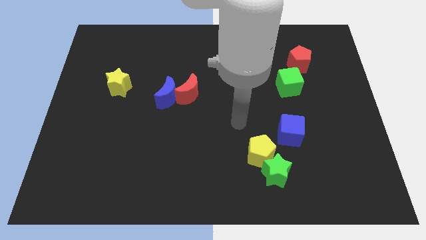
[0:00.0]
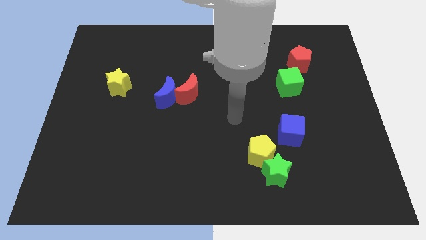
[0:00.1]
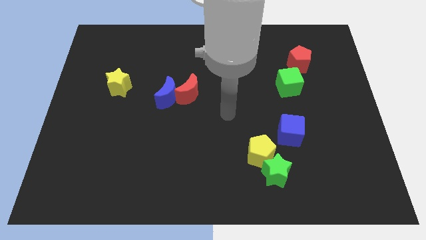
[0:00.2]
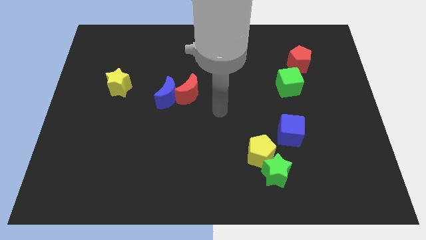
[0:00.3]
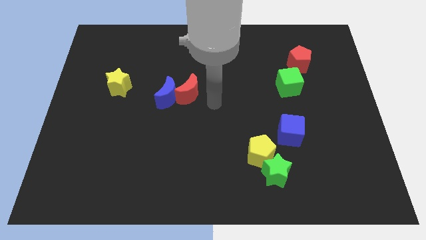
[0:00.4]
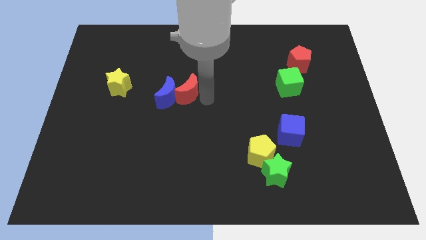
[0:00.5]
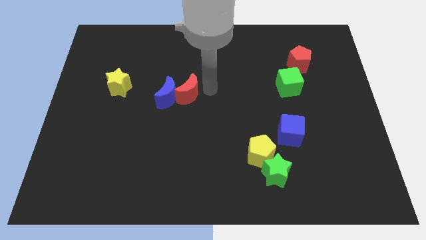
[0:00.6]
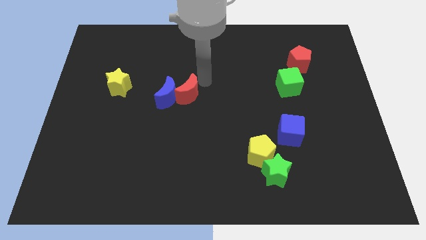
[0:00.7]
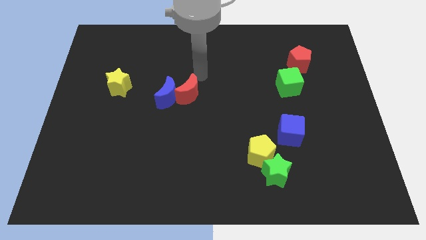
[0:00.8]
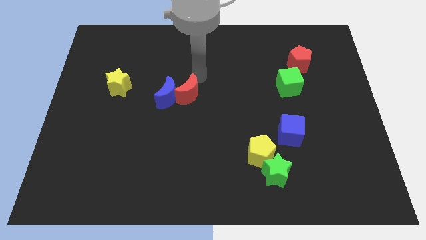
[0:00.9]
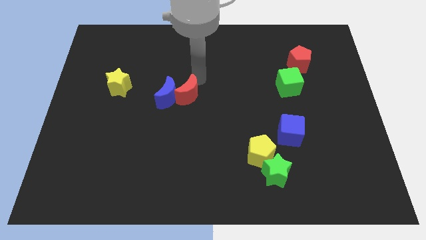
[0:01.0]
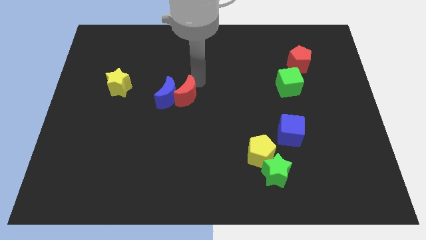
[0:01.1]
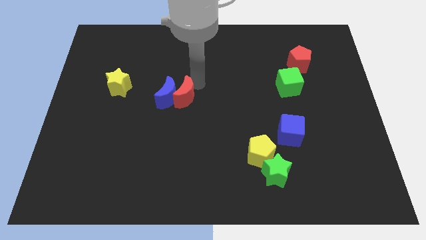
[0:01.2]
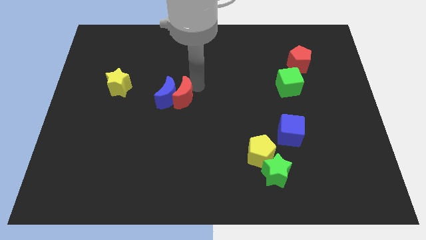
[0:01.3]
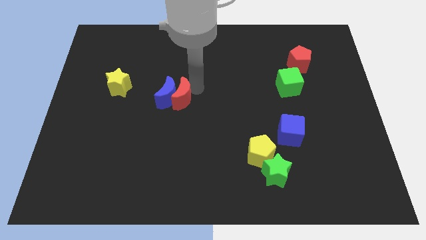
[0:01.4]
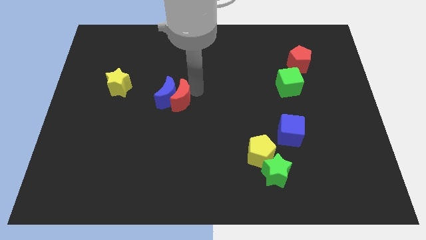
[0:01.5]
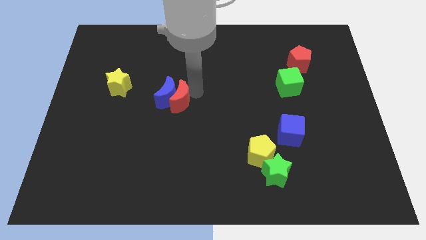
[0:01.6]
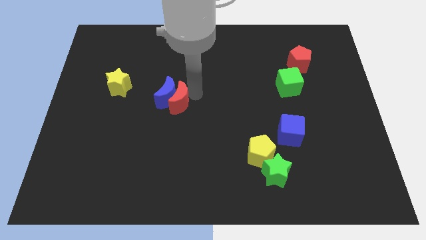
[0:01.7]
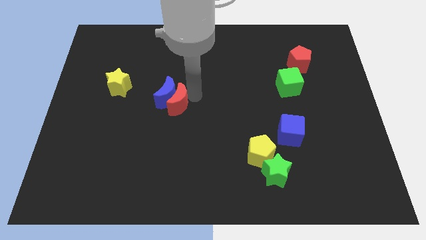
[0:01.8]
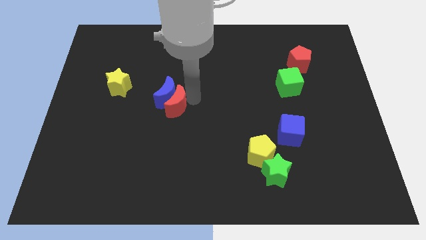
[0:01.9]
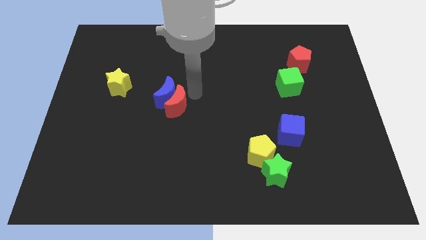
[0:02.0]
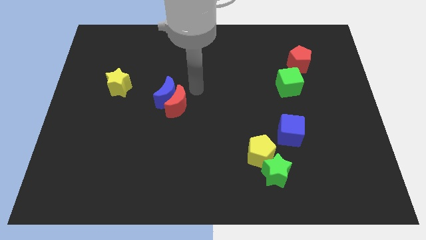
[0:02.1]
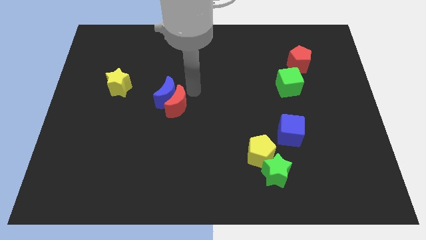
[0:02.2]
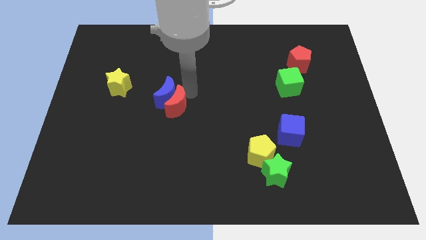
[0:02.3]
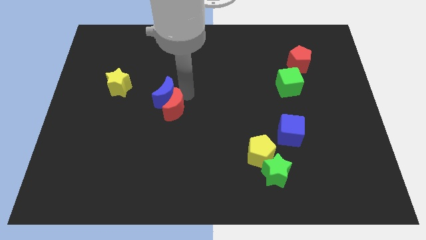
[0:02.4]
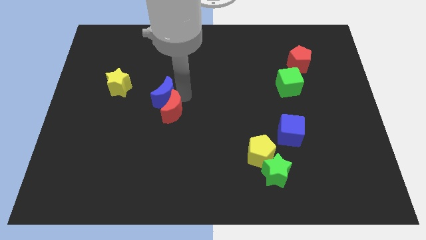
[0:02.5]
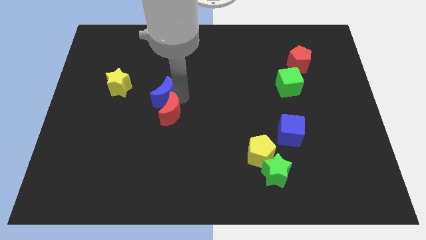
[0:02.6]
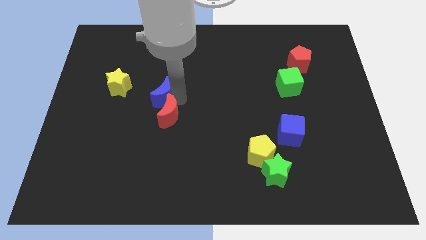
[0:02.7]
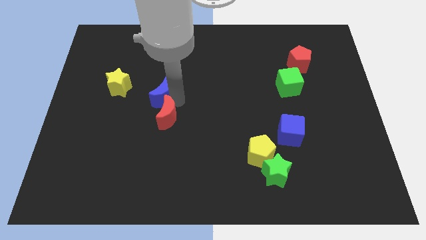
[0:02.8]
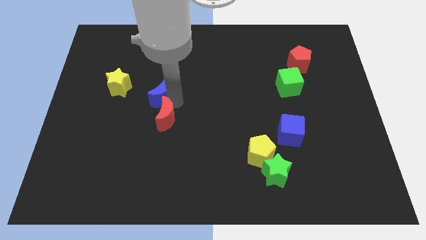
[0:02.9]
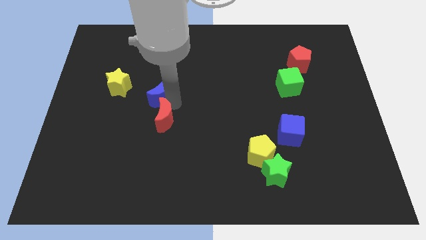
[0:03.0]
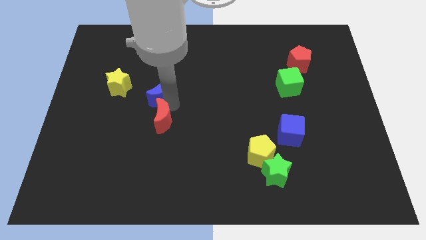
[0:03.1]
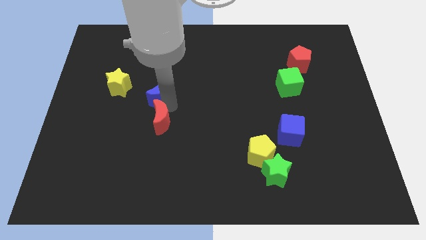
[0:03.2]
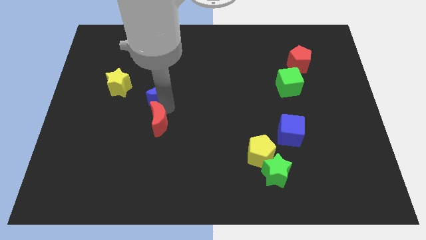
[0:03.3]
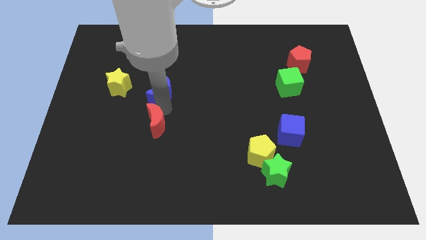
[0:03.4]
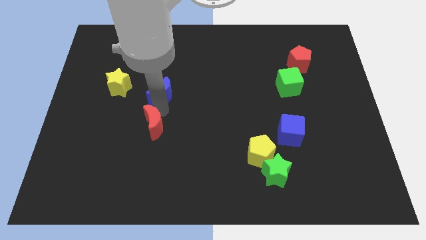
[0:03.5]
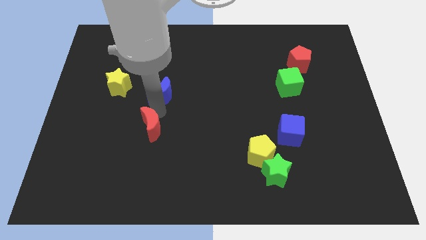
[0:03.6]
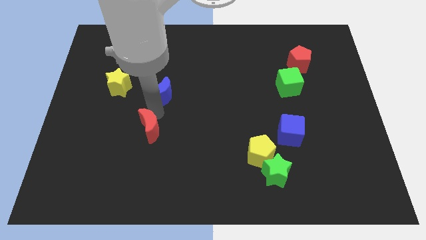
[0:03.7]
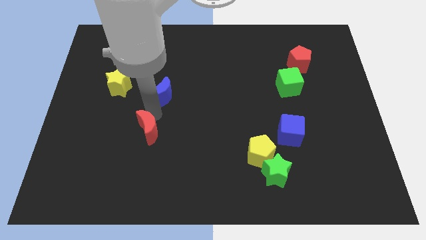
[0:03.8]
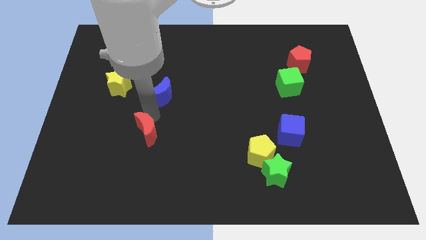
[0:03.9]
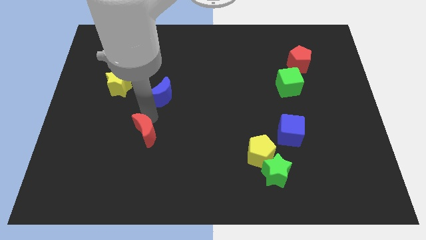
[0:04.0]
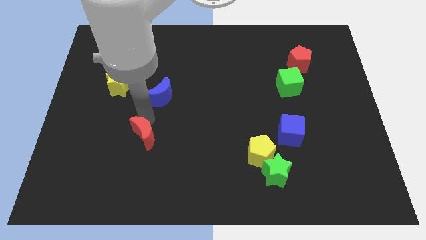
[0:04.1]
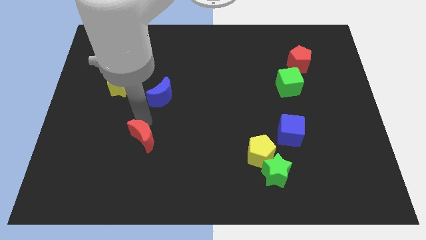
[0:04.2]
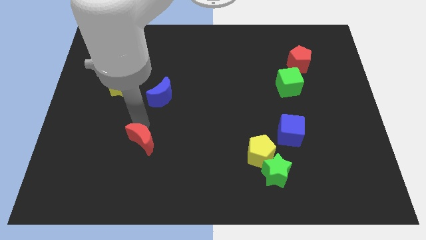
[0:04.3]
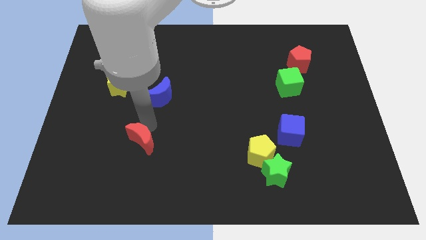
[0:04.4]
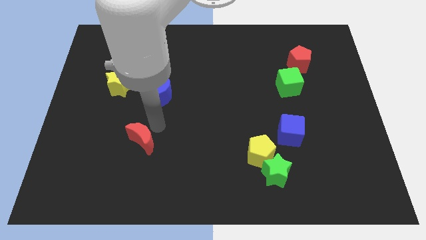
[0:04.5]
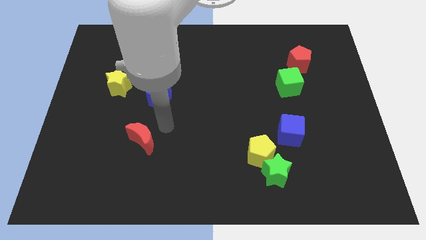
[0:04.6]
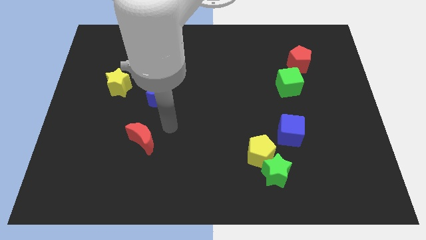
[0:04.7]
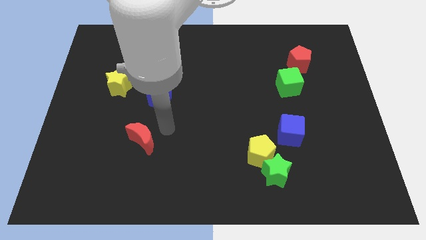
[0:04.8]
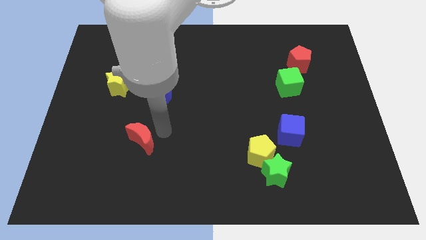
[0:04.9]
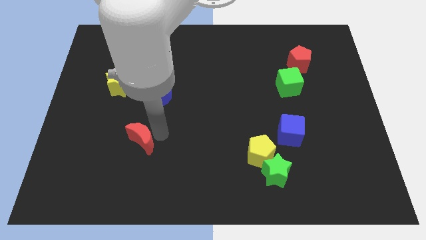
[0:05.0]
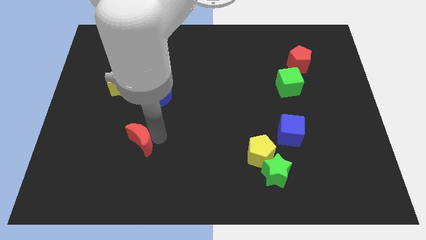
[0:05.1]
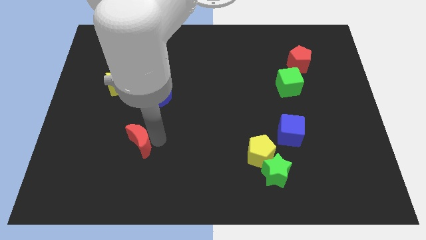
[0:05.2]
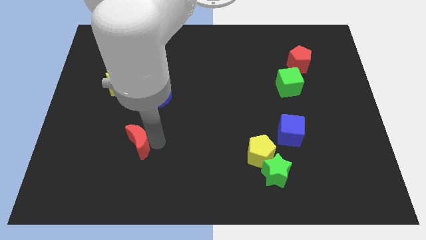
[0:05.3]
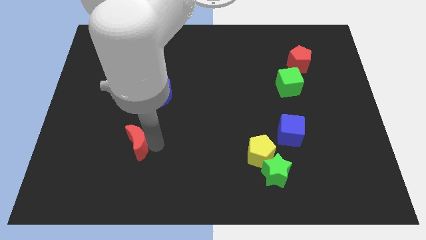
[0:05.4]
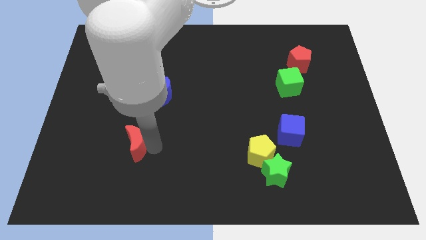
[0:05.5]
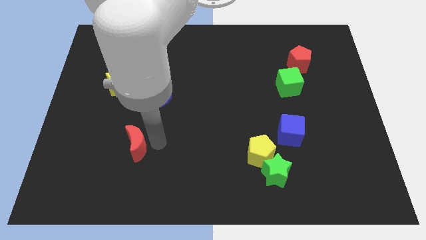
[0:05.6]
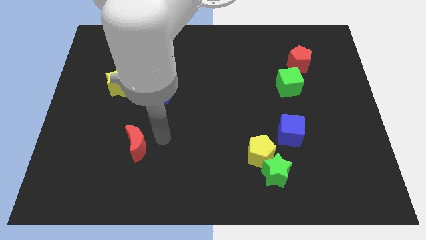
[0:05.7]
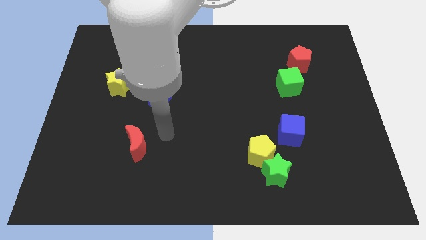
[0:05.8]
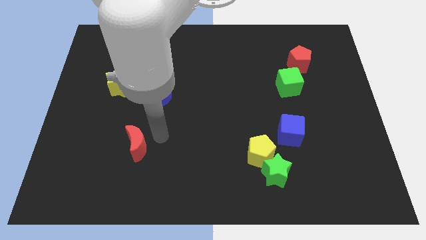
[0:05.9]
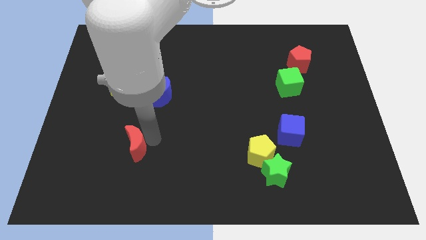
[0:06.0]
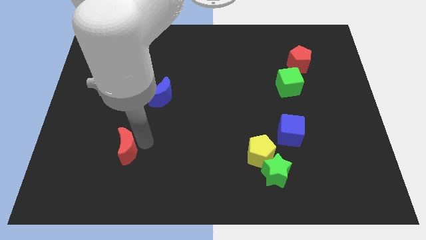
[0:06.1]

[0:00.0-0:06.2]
slide the red moon diagonally down and to the left

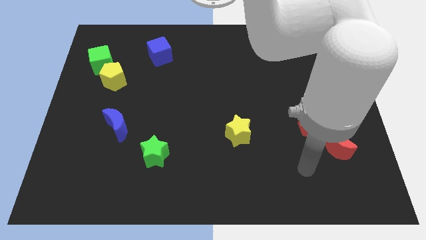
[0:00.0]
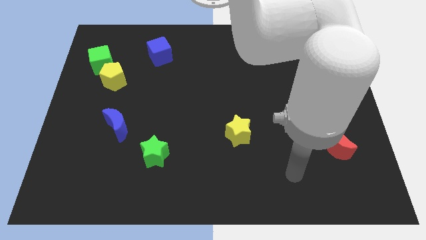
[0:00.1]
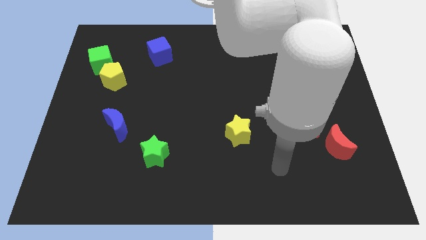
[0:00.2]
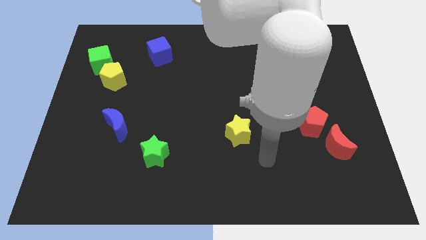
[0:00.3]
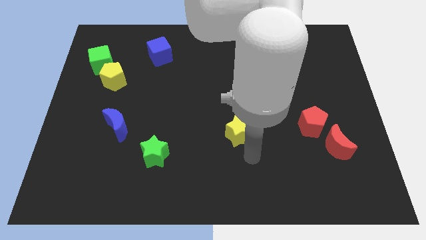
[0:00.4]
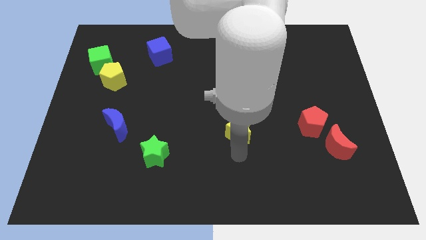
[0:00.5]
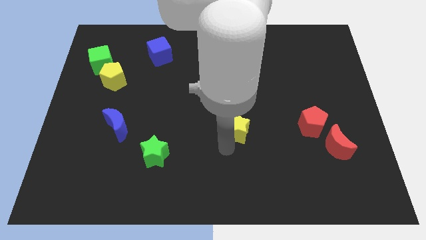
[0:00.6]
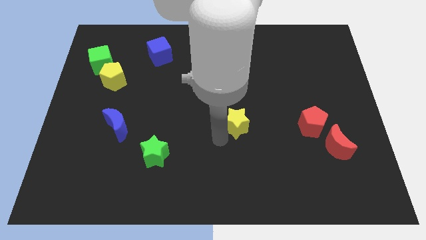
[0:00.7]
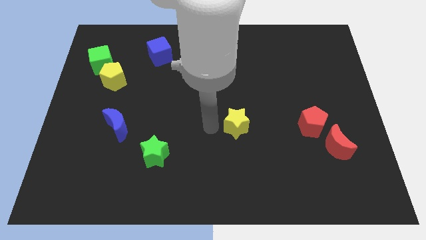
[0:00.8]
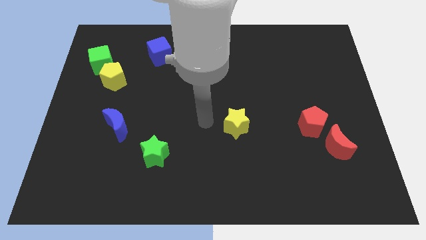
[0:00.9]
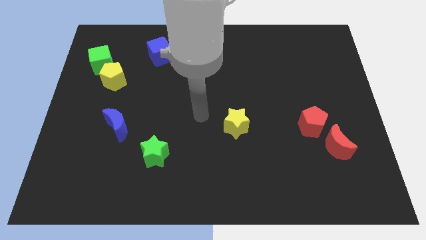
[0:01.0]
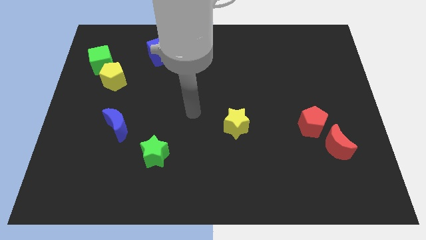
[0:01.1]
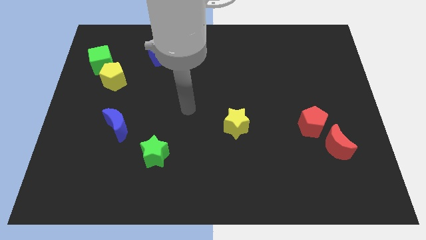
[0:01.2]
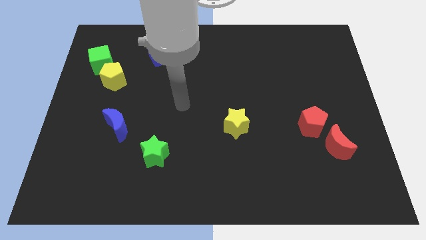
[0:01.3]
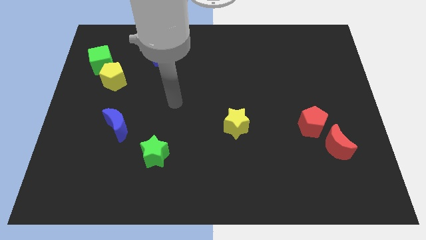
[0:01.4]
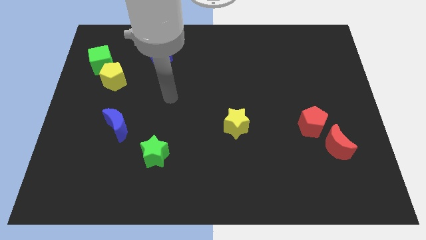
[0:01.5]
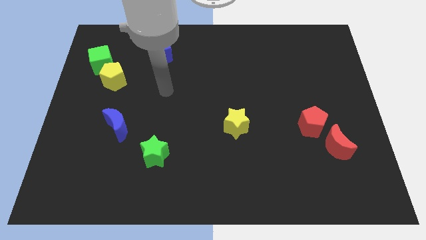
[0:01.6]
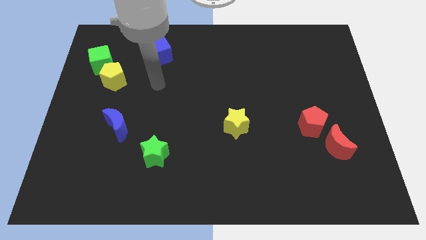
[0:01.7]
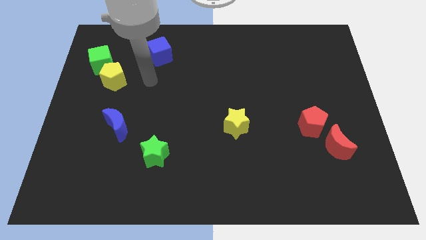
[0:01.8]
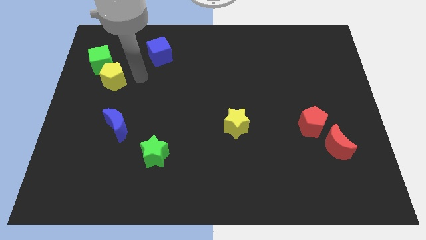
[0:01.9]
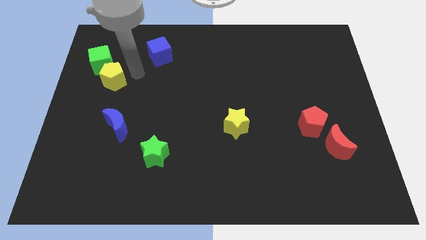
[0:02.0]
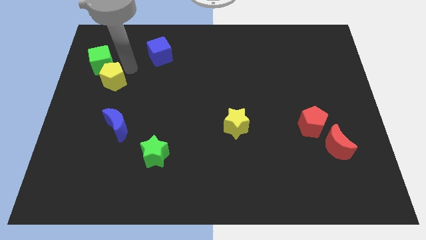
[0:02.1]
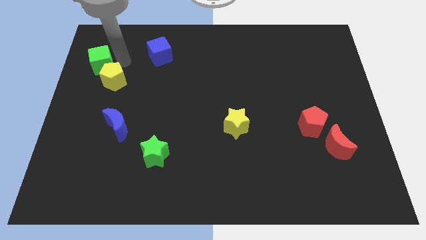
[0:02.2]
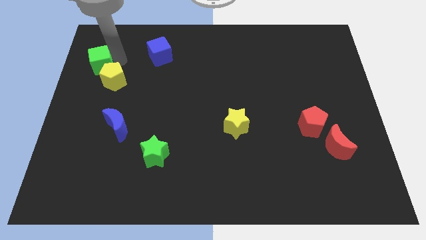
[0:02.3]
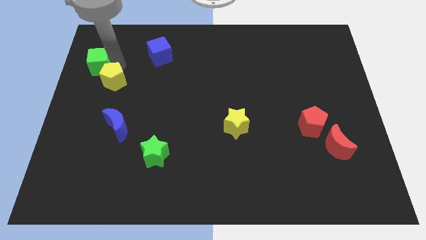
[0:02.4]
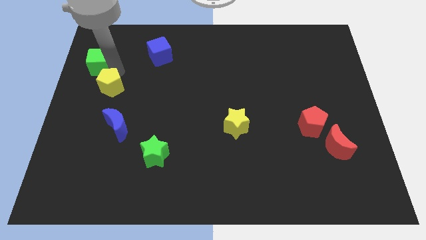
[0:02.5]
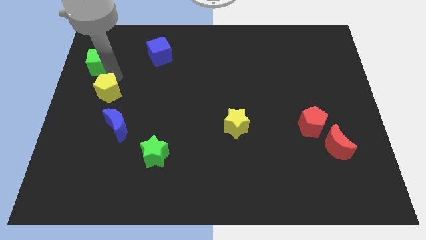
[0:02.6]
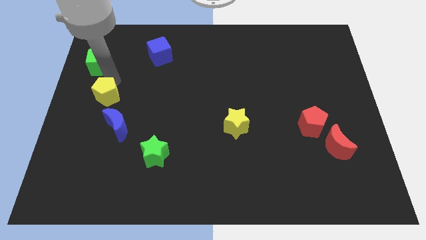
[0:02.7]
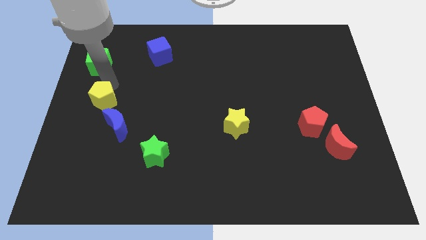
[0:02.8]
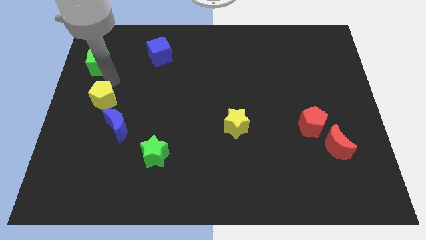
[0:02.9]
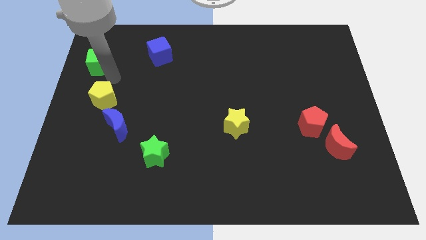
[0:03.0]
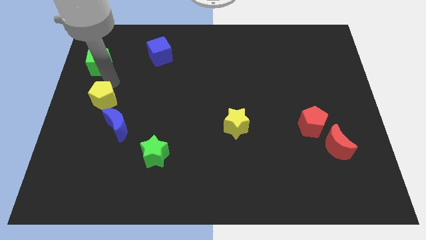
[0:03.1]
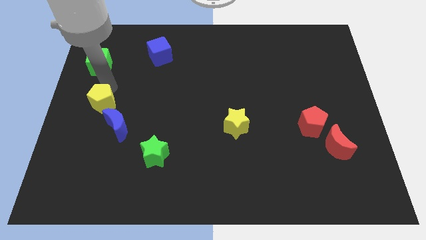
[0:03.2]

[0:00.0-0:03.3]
slide the yellow pentagon downwards a bit
